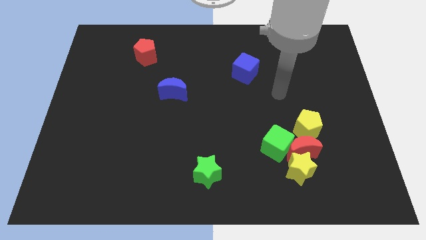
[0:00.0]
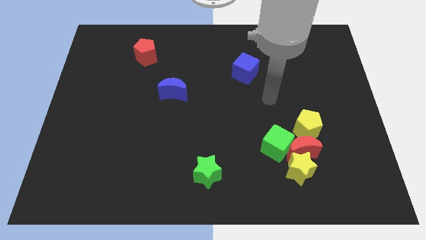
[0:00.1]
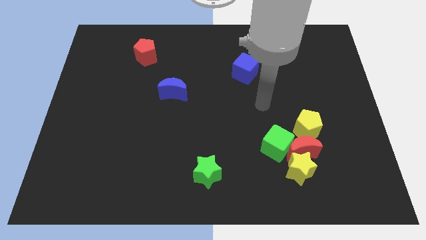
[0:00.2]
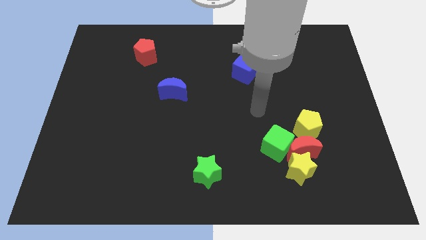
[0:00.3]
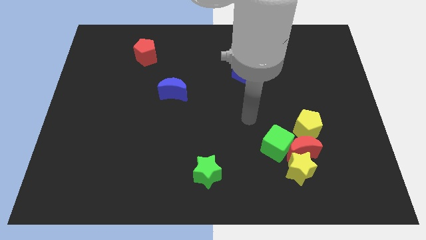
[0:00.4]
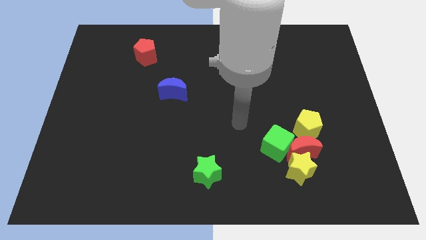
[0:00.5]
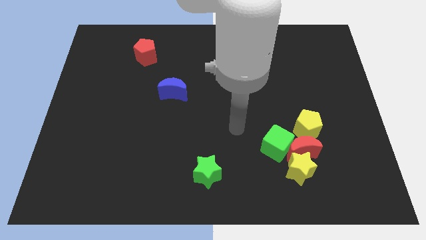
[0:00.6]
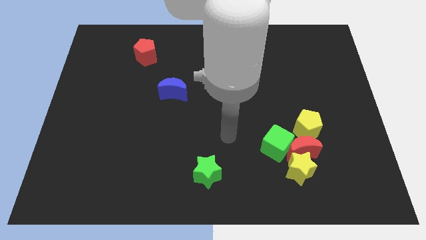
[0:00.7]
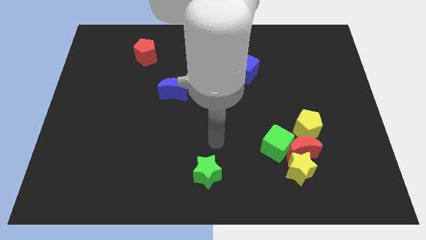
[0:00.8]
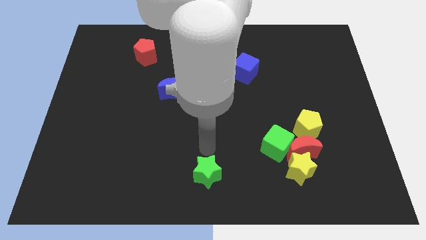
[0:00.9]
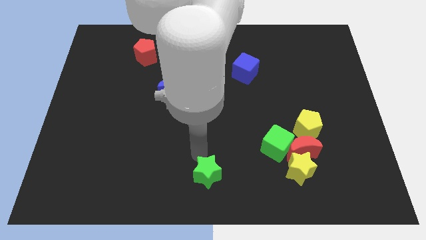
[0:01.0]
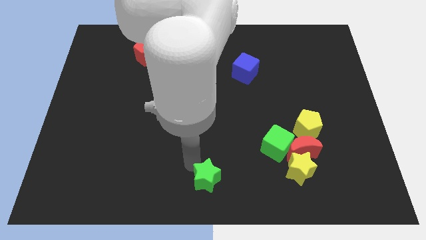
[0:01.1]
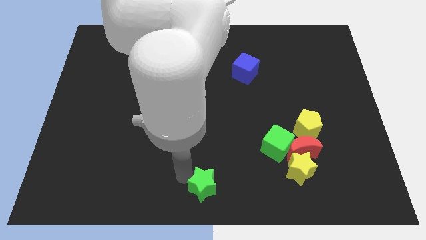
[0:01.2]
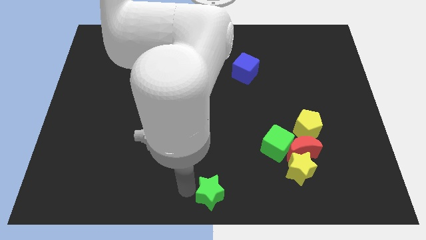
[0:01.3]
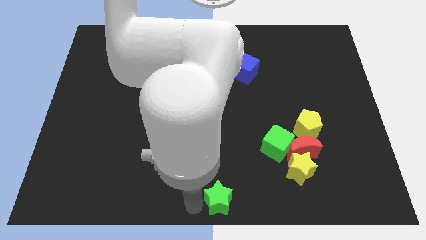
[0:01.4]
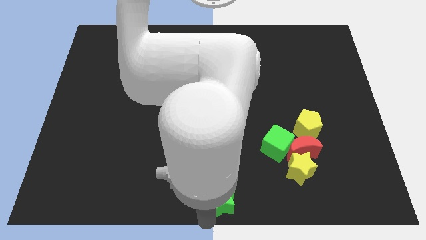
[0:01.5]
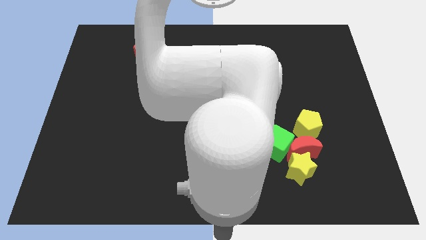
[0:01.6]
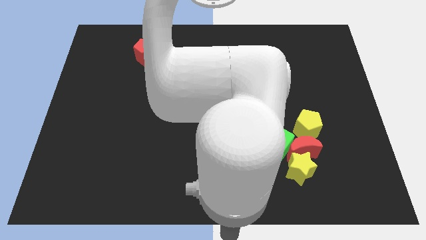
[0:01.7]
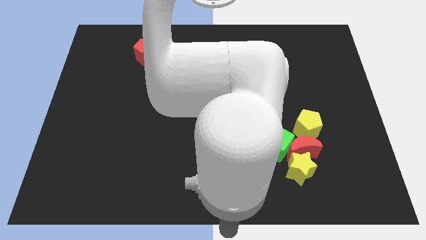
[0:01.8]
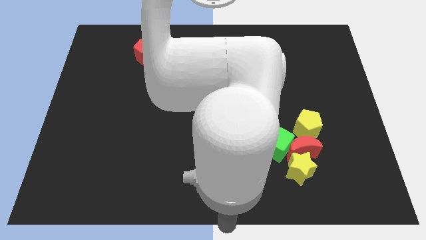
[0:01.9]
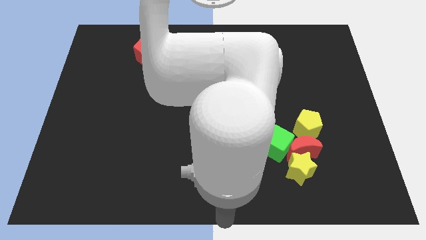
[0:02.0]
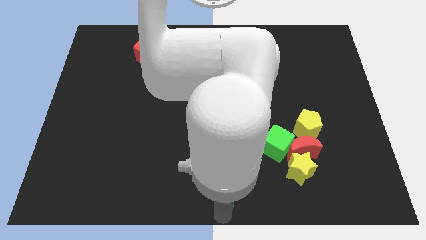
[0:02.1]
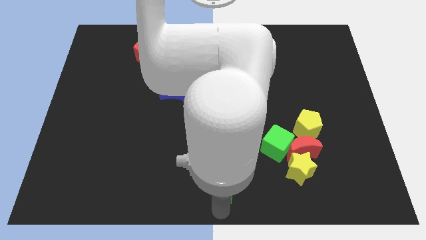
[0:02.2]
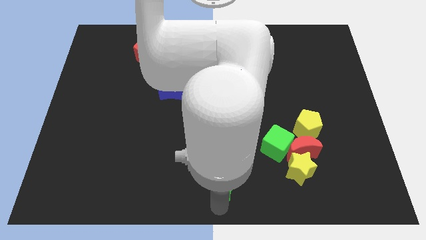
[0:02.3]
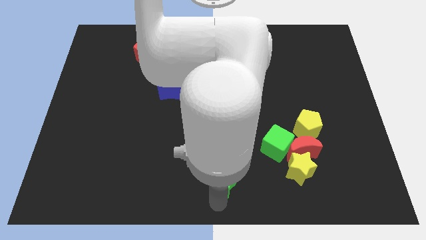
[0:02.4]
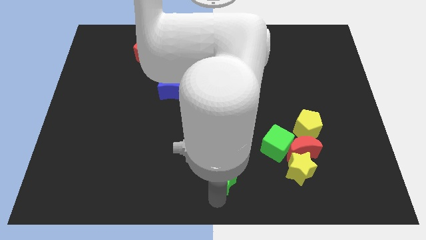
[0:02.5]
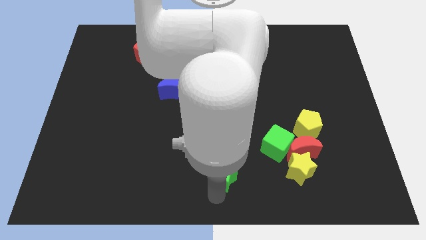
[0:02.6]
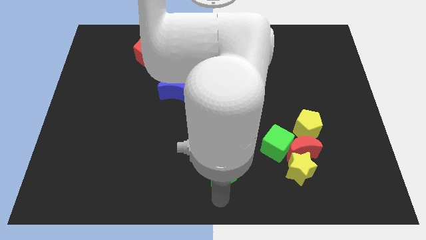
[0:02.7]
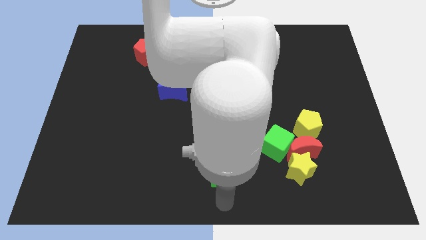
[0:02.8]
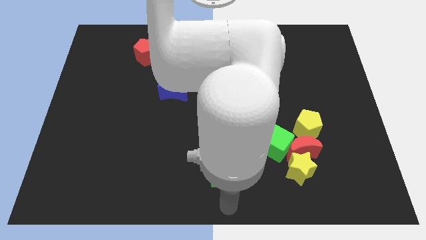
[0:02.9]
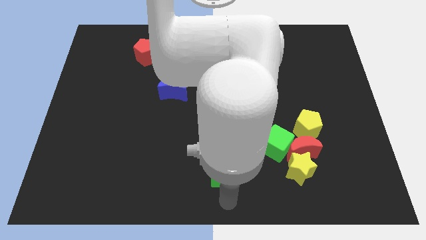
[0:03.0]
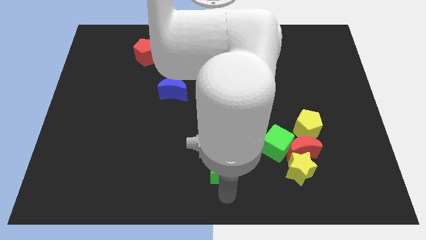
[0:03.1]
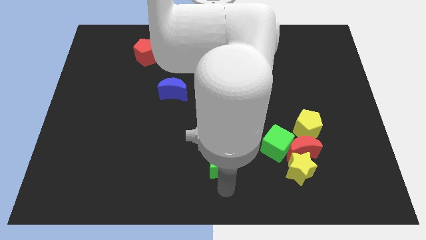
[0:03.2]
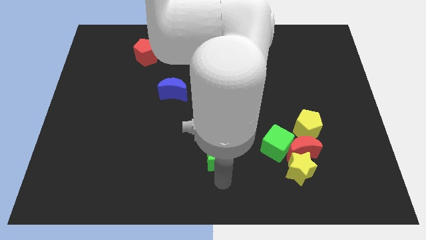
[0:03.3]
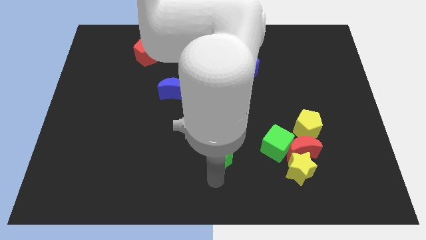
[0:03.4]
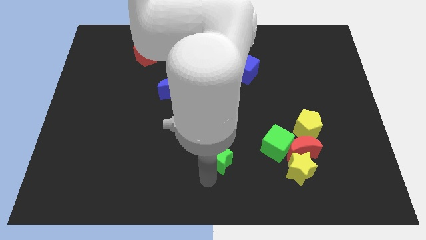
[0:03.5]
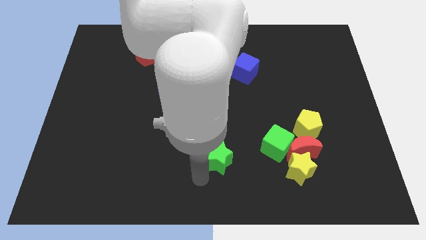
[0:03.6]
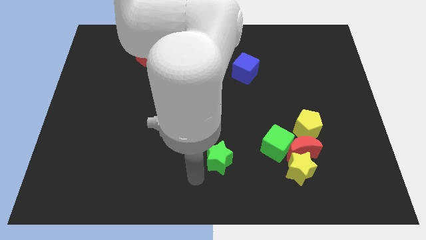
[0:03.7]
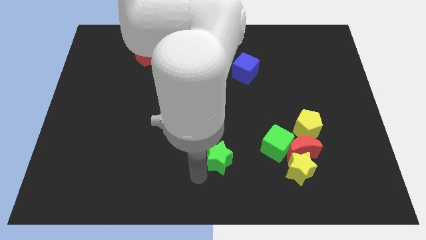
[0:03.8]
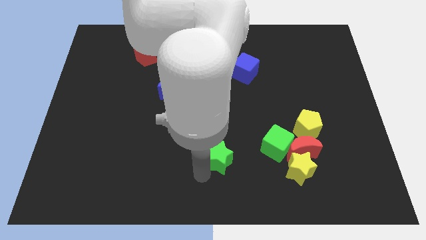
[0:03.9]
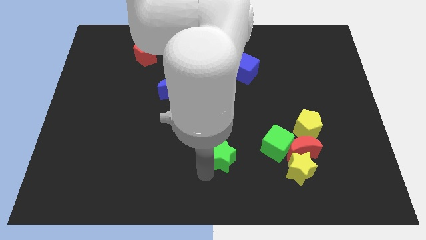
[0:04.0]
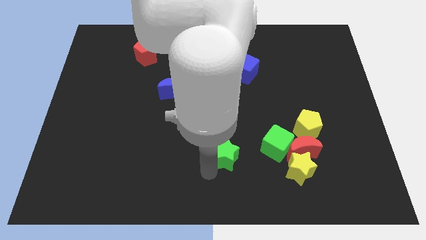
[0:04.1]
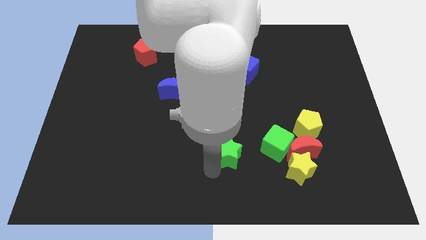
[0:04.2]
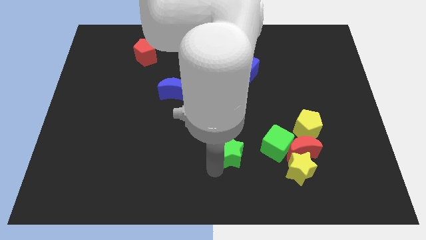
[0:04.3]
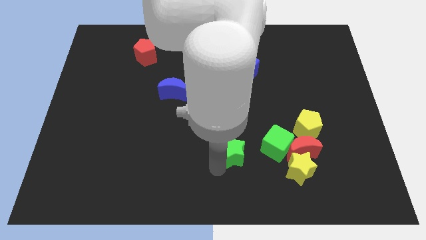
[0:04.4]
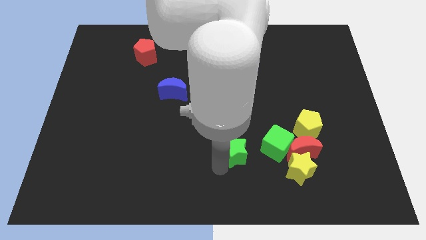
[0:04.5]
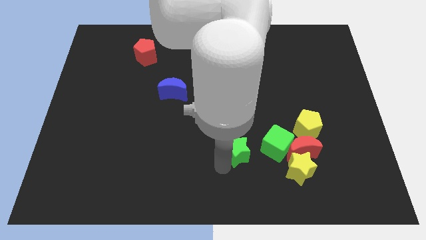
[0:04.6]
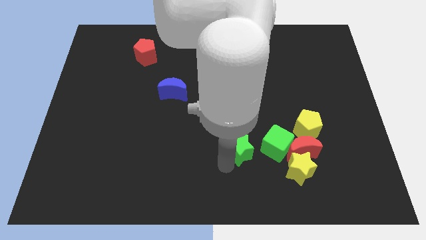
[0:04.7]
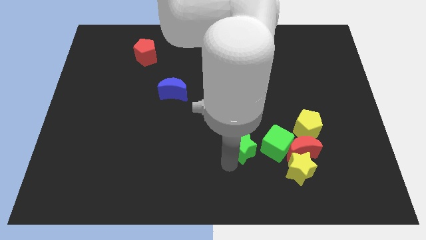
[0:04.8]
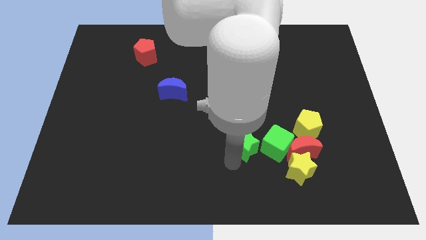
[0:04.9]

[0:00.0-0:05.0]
push the green star diagonally up and to the left of the green cube

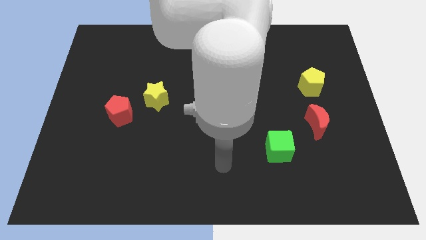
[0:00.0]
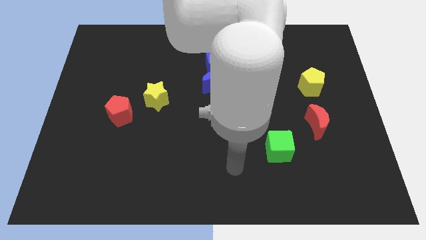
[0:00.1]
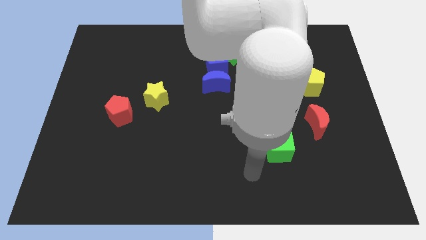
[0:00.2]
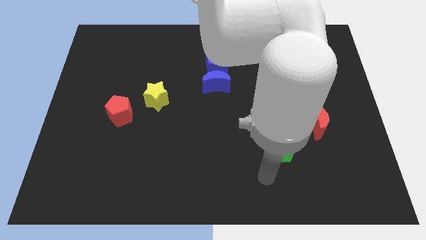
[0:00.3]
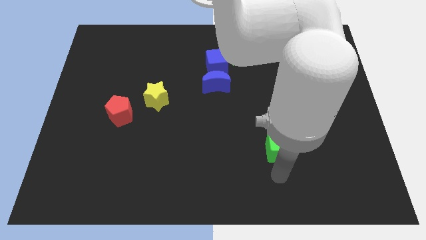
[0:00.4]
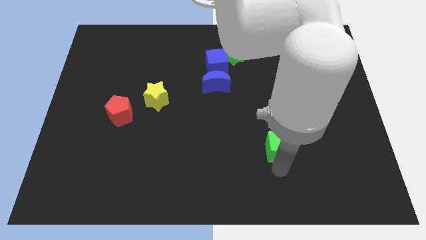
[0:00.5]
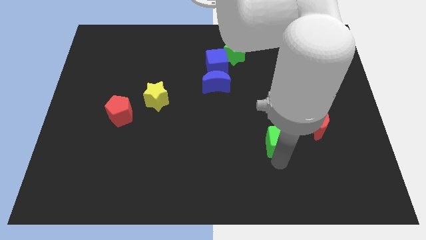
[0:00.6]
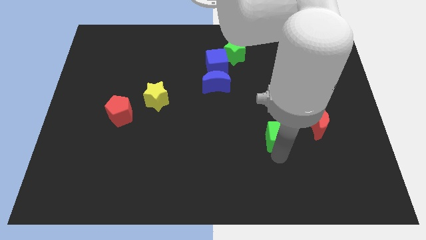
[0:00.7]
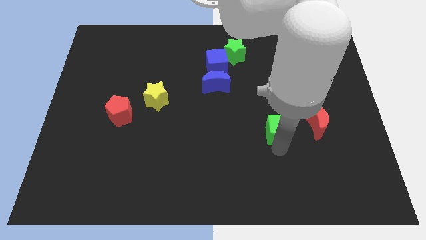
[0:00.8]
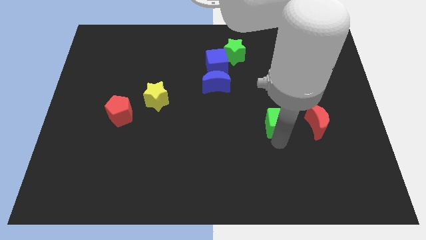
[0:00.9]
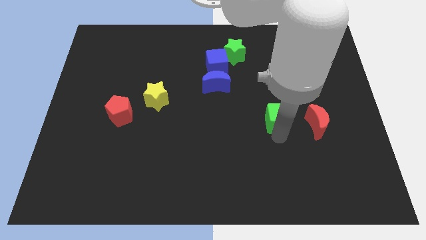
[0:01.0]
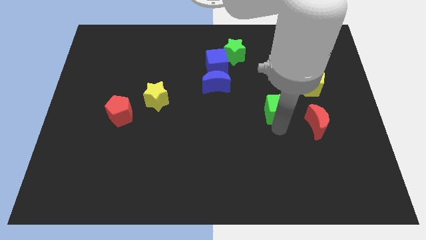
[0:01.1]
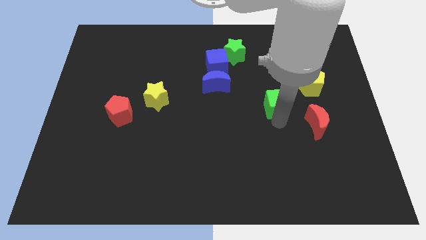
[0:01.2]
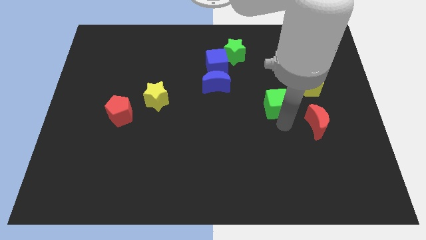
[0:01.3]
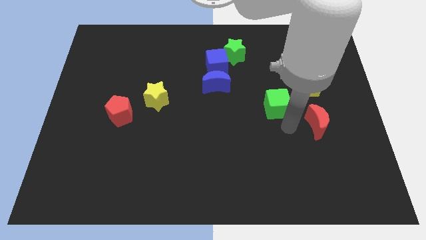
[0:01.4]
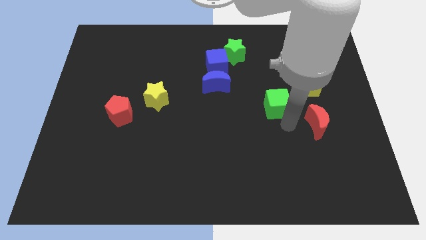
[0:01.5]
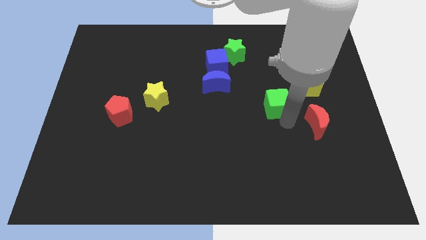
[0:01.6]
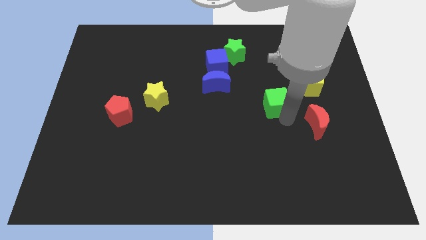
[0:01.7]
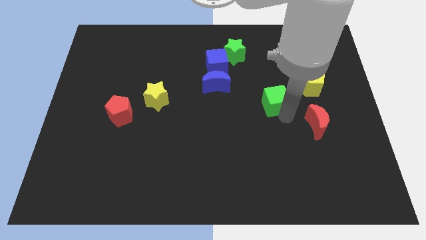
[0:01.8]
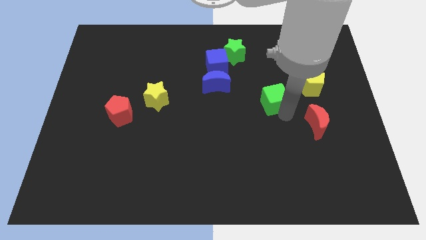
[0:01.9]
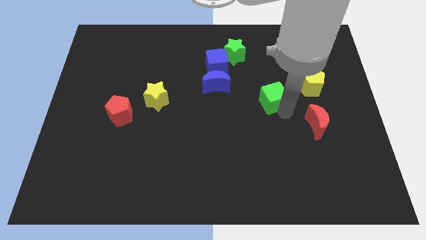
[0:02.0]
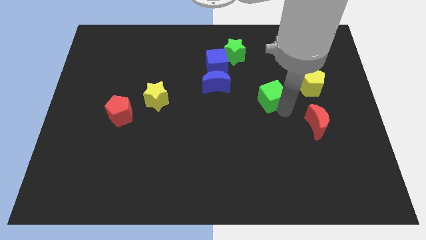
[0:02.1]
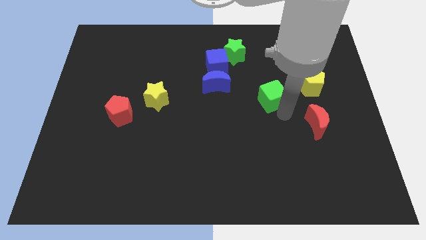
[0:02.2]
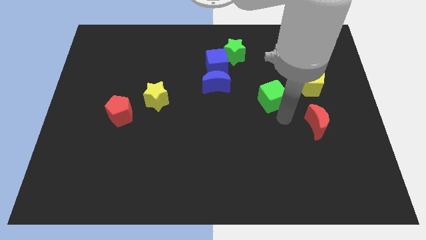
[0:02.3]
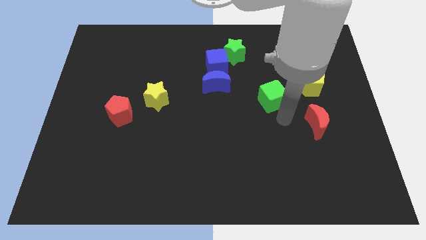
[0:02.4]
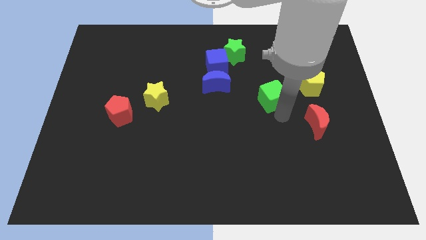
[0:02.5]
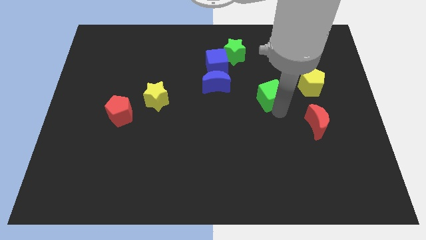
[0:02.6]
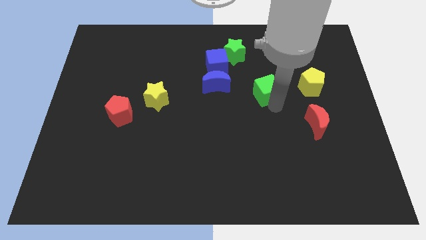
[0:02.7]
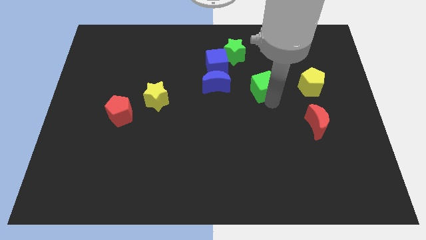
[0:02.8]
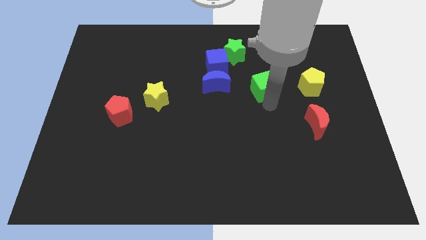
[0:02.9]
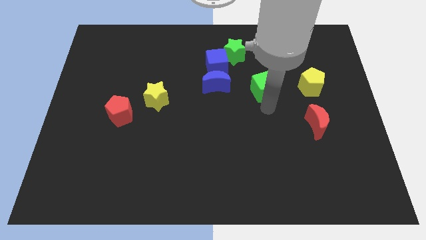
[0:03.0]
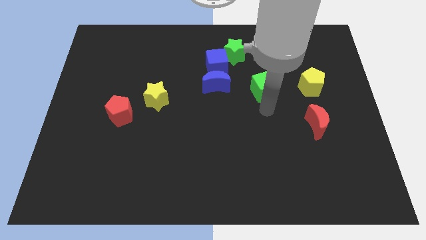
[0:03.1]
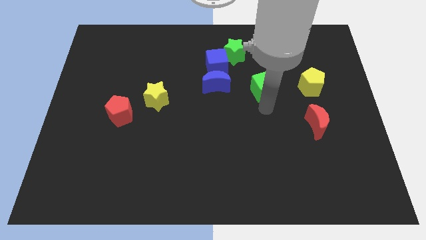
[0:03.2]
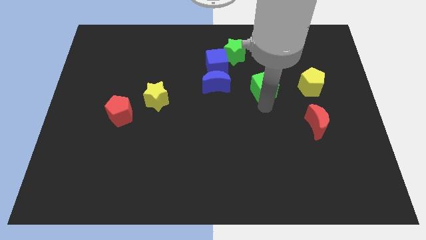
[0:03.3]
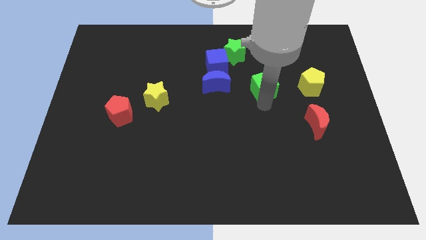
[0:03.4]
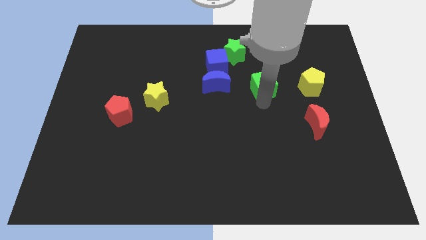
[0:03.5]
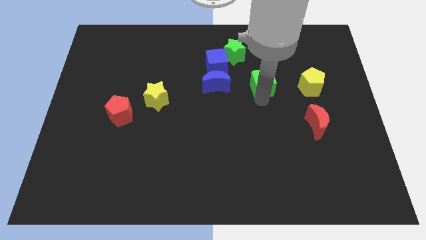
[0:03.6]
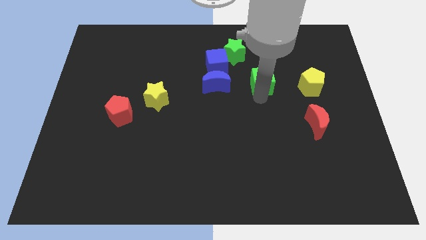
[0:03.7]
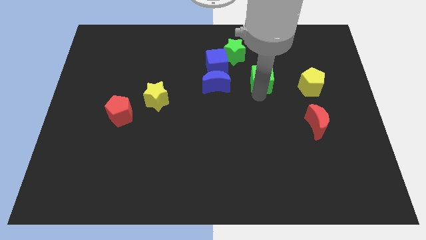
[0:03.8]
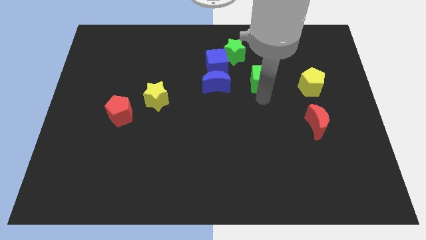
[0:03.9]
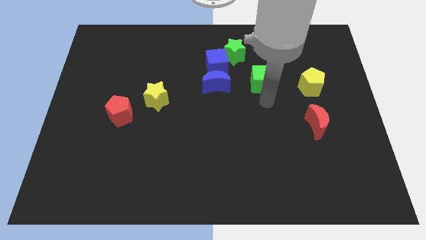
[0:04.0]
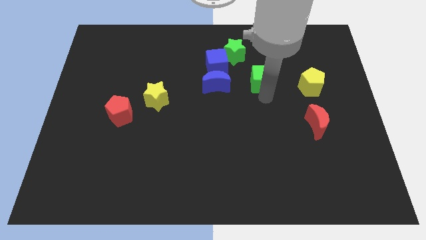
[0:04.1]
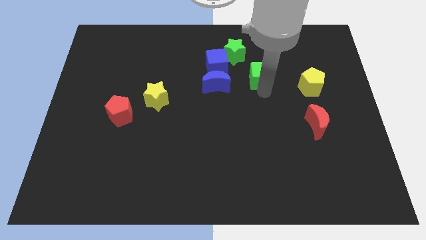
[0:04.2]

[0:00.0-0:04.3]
move the green cube to the right side of the blue cube
